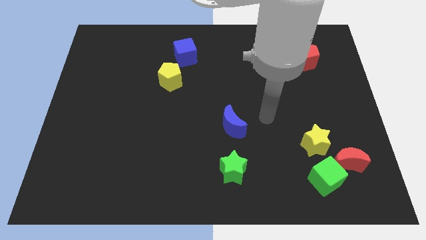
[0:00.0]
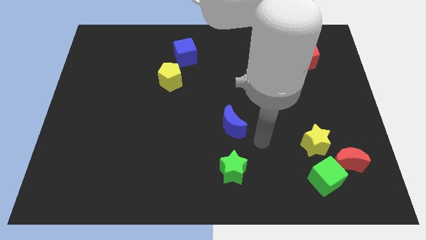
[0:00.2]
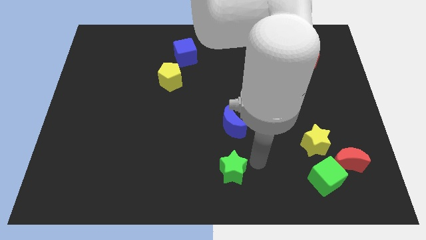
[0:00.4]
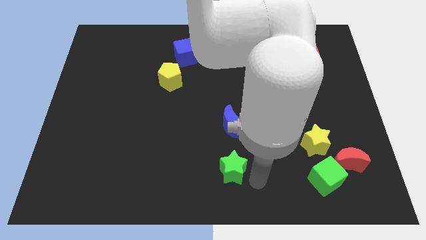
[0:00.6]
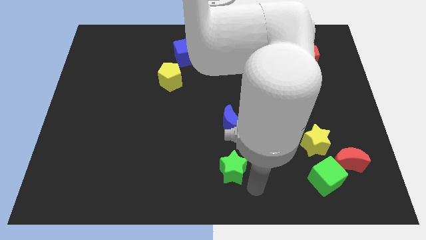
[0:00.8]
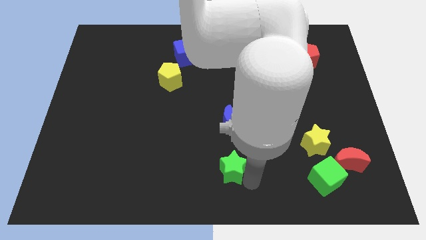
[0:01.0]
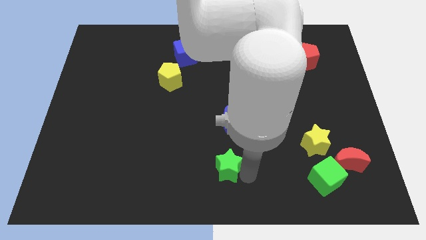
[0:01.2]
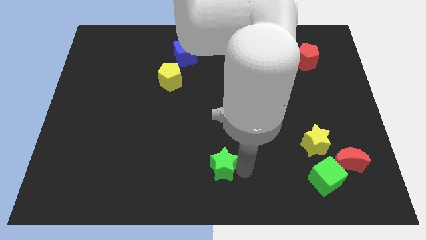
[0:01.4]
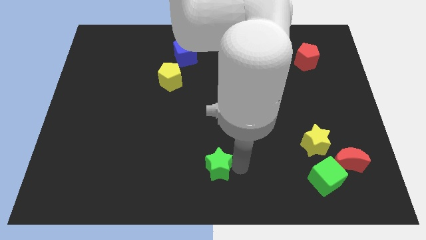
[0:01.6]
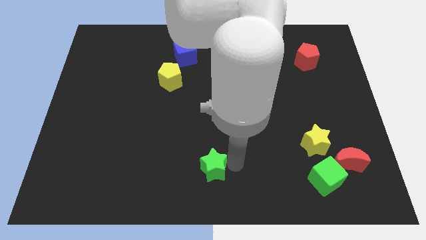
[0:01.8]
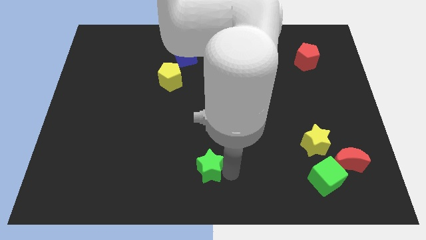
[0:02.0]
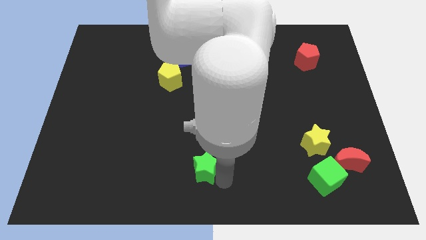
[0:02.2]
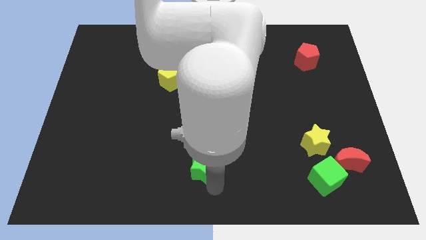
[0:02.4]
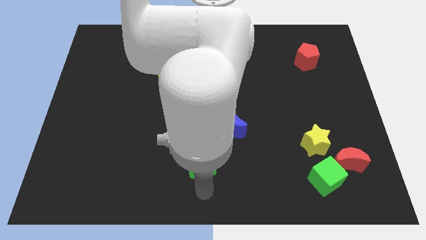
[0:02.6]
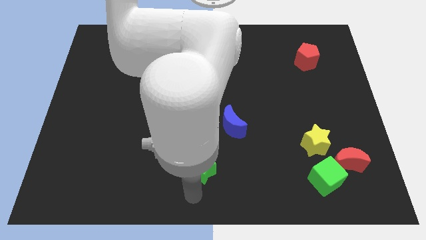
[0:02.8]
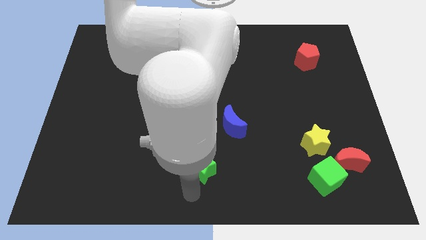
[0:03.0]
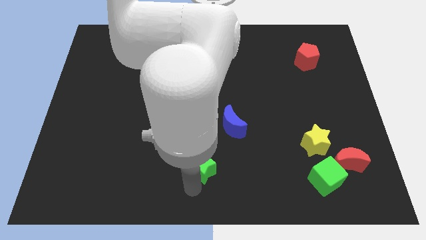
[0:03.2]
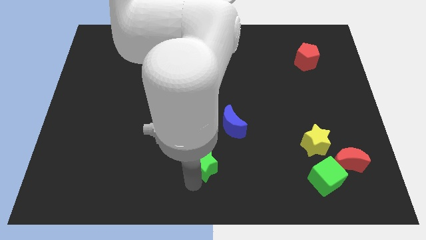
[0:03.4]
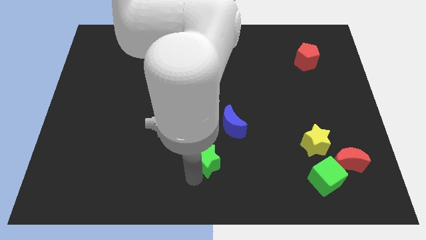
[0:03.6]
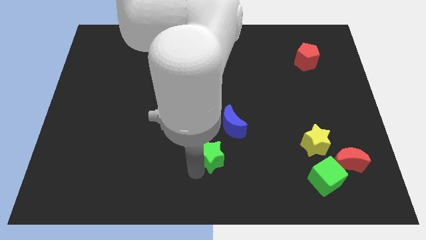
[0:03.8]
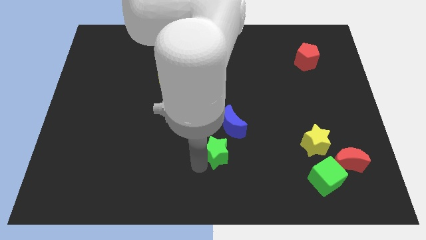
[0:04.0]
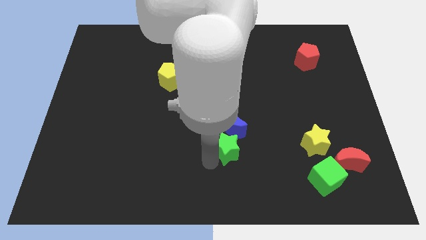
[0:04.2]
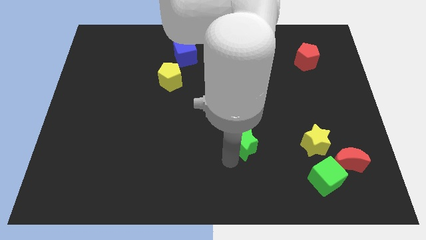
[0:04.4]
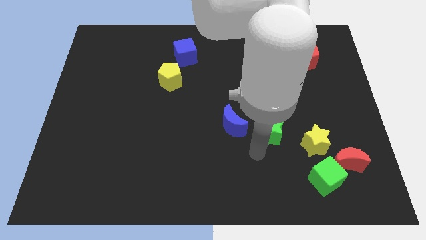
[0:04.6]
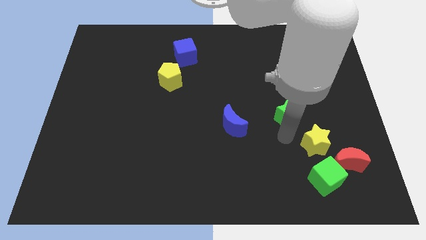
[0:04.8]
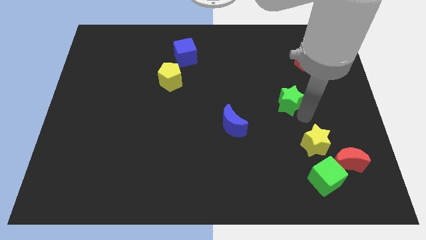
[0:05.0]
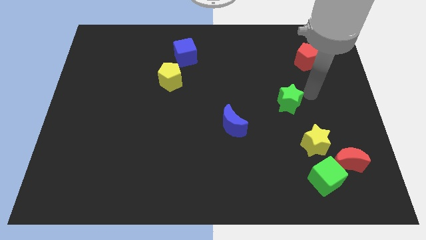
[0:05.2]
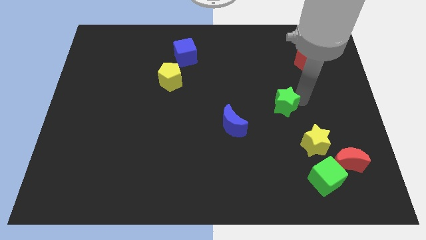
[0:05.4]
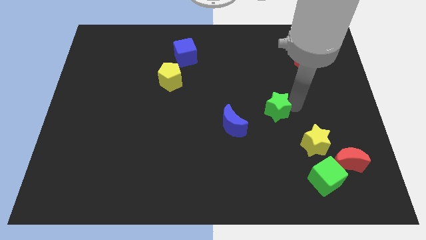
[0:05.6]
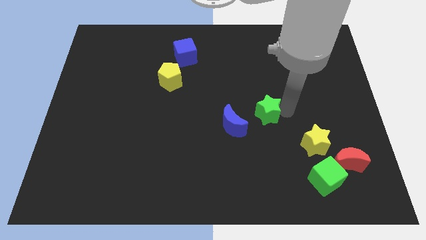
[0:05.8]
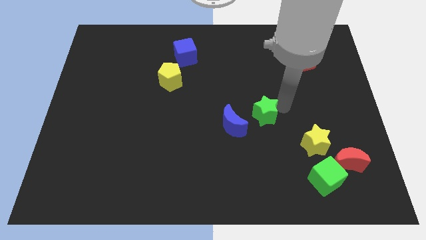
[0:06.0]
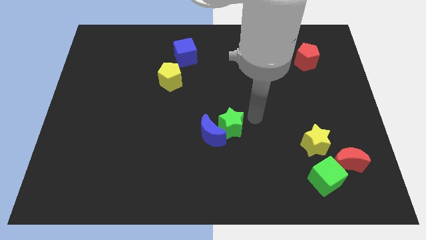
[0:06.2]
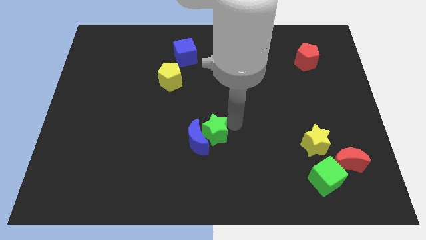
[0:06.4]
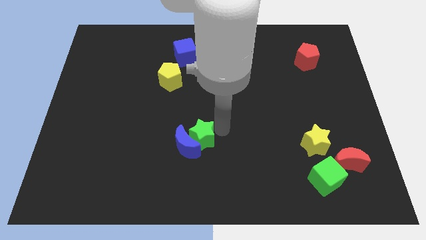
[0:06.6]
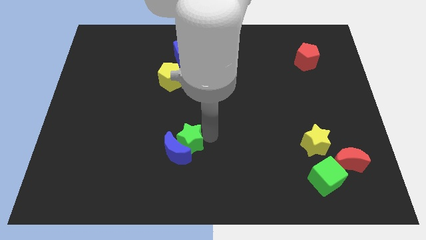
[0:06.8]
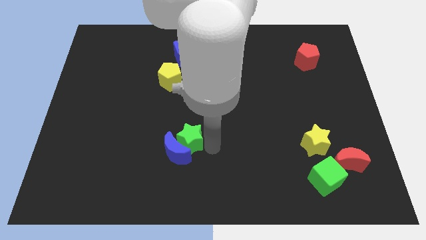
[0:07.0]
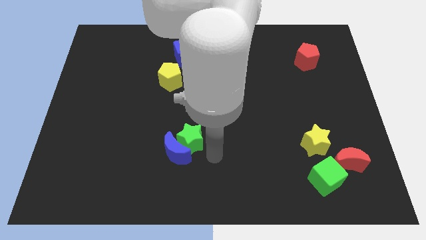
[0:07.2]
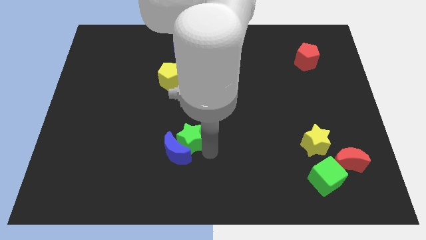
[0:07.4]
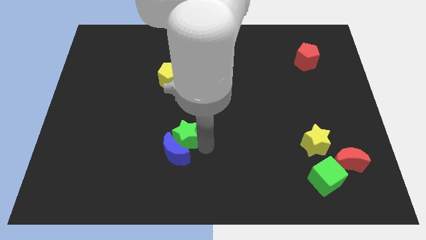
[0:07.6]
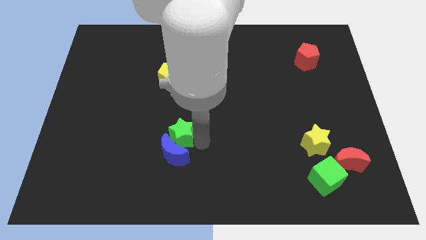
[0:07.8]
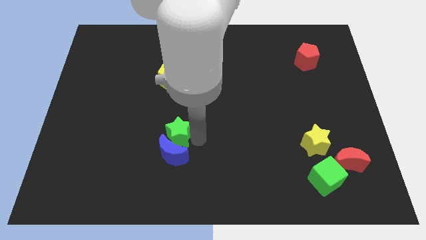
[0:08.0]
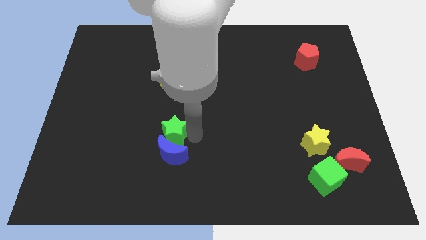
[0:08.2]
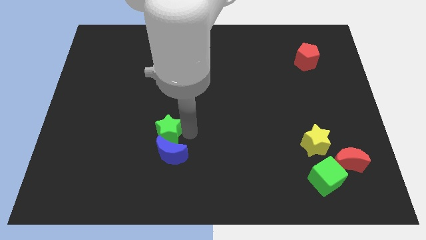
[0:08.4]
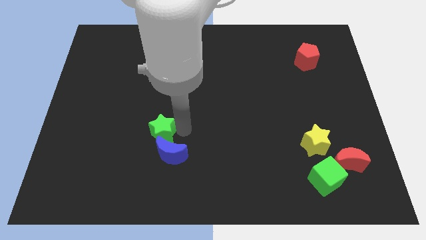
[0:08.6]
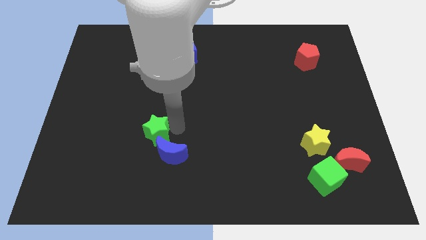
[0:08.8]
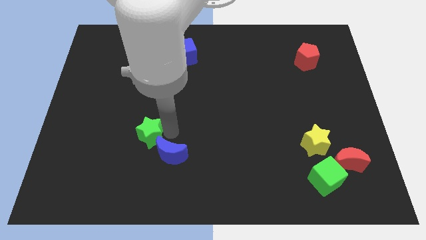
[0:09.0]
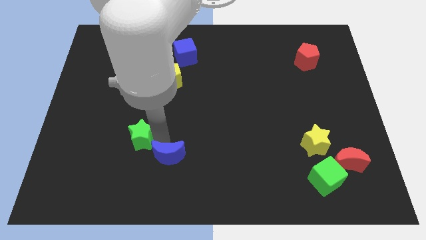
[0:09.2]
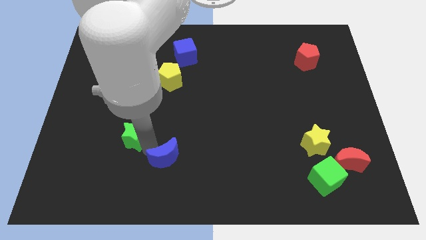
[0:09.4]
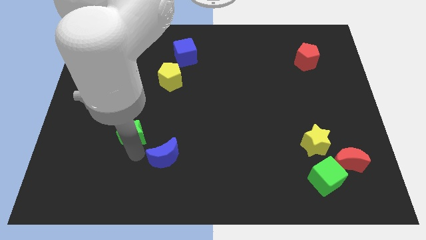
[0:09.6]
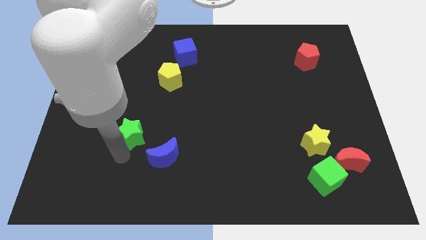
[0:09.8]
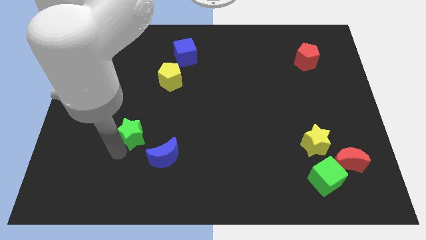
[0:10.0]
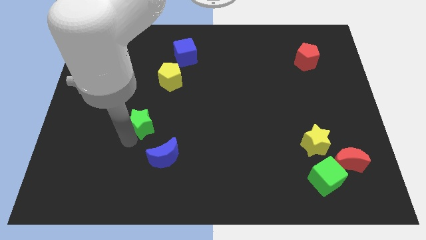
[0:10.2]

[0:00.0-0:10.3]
move the green star upwards and then to the left

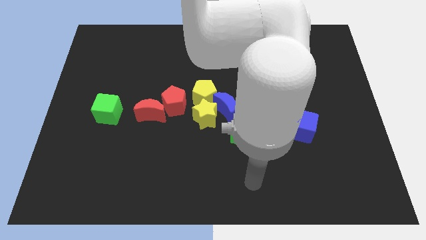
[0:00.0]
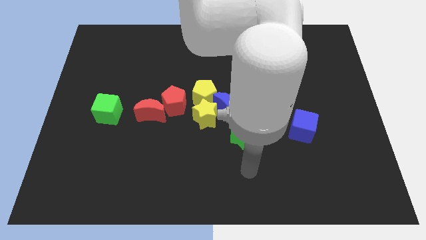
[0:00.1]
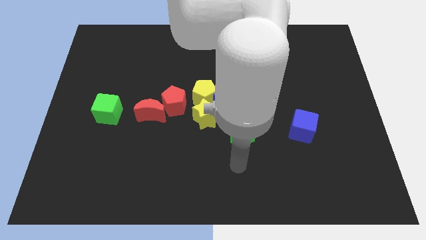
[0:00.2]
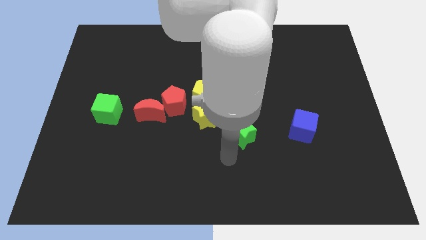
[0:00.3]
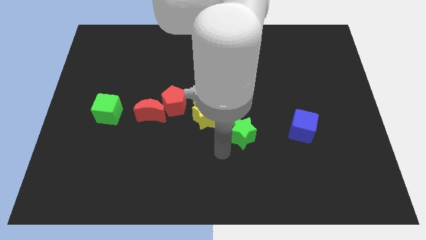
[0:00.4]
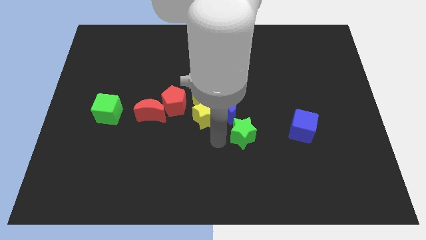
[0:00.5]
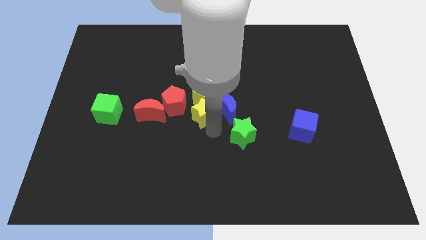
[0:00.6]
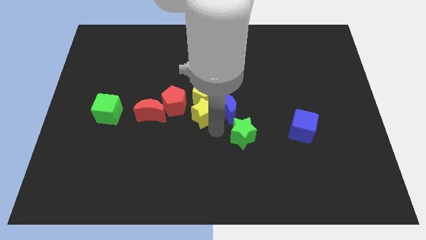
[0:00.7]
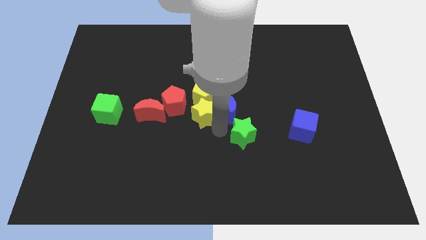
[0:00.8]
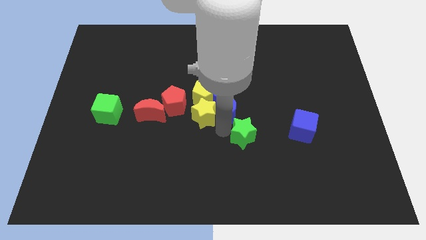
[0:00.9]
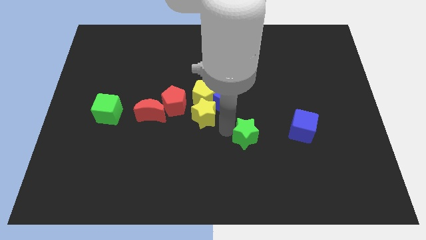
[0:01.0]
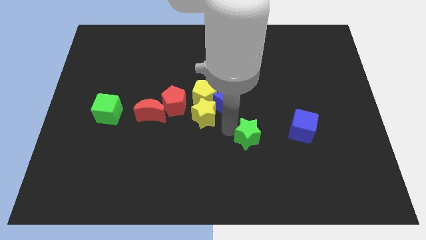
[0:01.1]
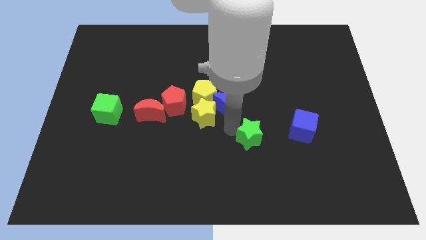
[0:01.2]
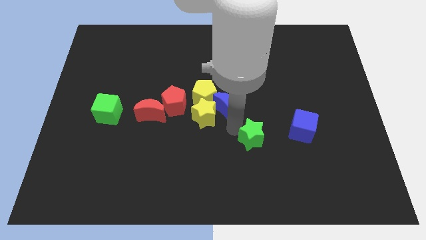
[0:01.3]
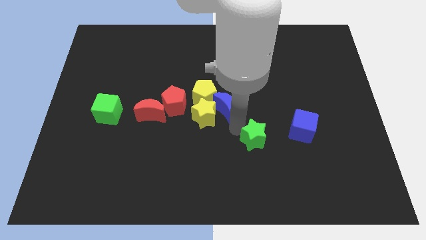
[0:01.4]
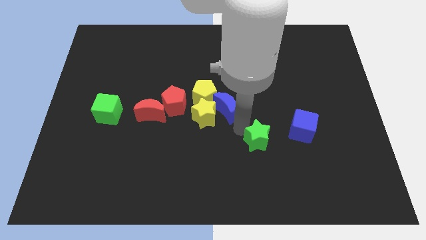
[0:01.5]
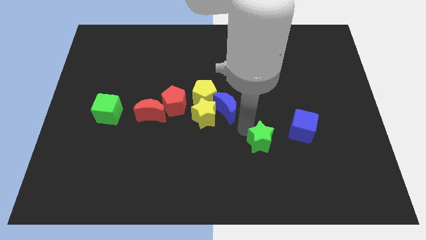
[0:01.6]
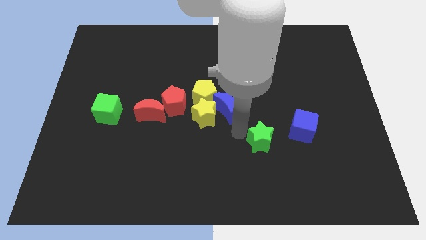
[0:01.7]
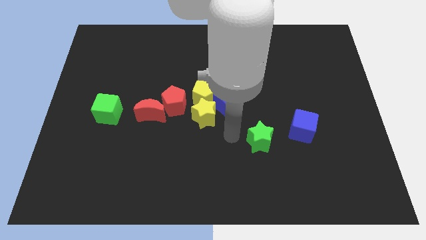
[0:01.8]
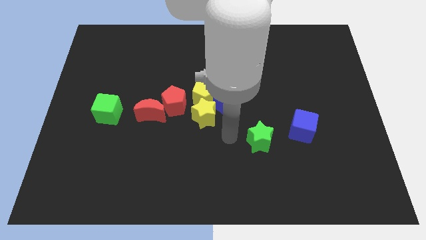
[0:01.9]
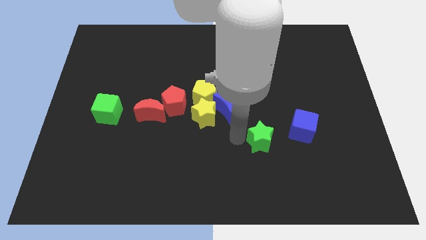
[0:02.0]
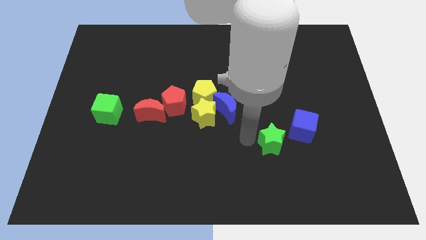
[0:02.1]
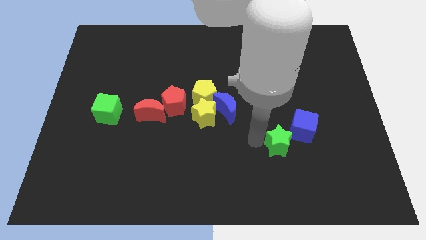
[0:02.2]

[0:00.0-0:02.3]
slightly move the green star to the right

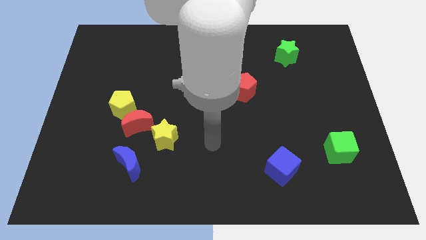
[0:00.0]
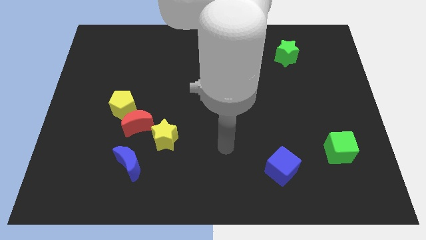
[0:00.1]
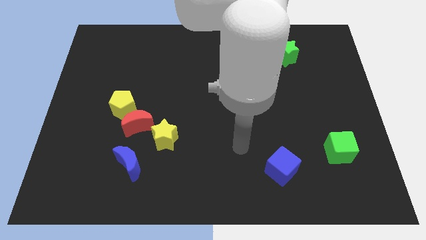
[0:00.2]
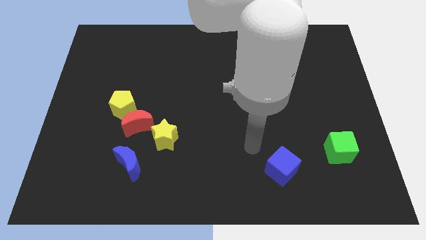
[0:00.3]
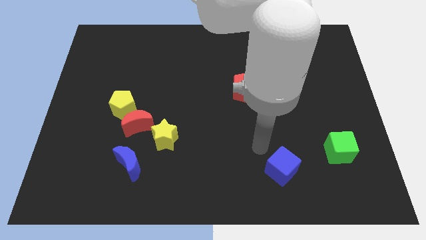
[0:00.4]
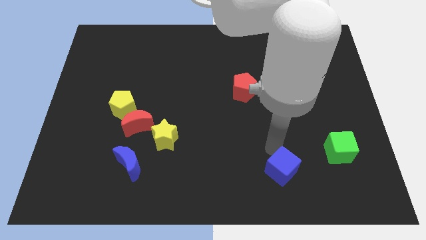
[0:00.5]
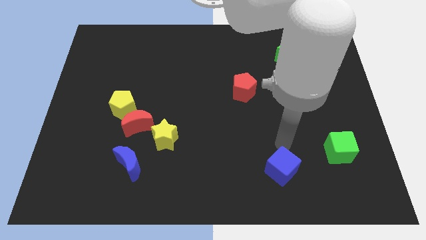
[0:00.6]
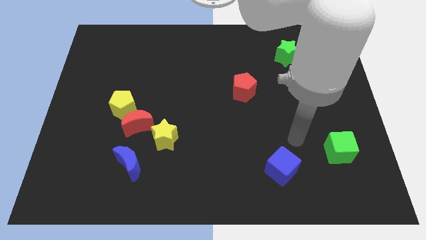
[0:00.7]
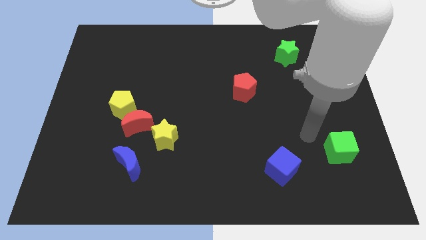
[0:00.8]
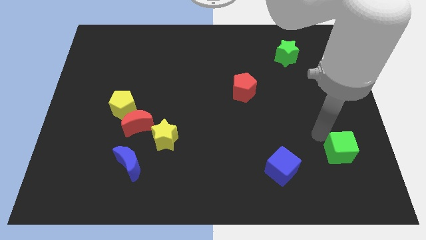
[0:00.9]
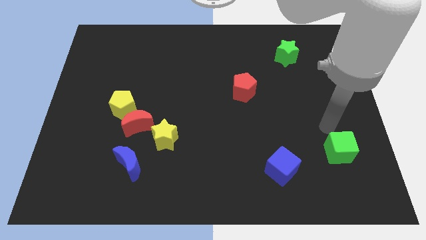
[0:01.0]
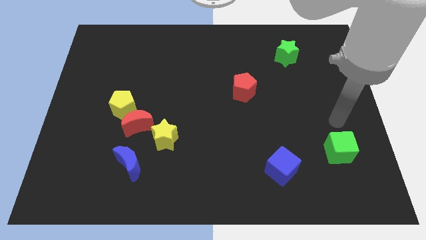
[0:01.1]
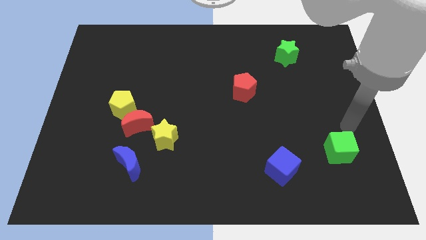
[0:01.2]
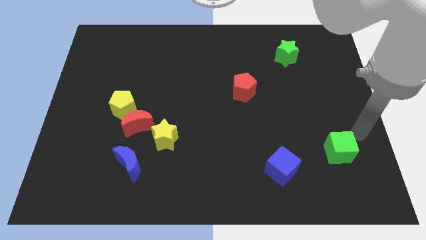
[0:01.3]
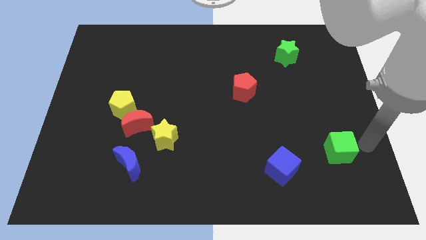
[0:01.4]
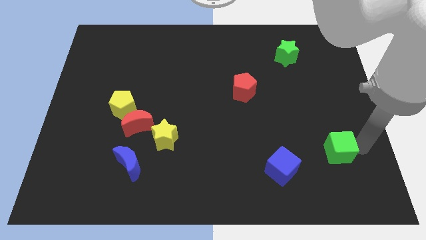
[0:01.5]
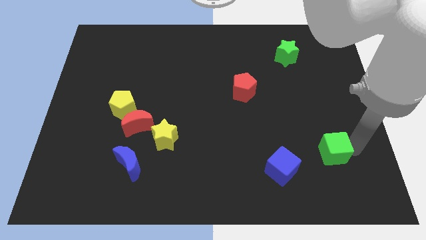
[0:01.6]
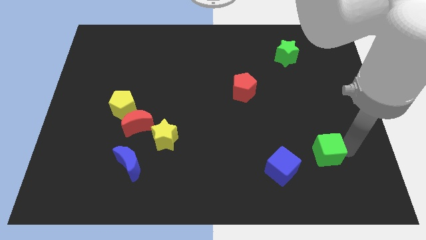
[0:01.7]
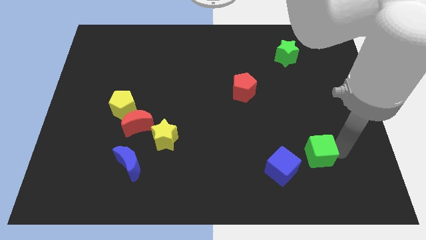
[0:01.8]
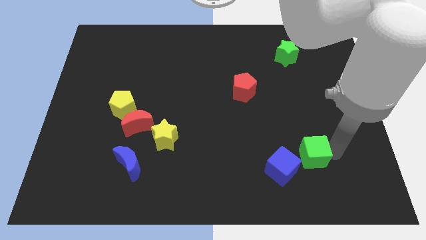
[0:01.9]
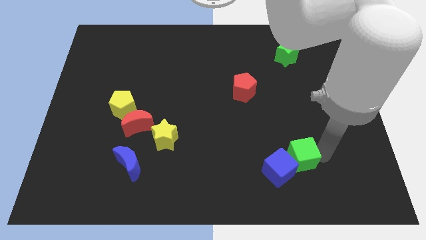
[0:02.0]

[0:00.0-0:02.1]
slightly slide the green cube left
